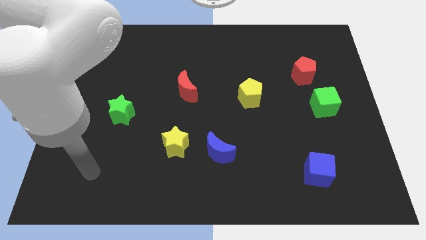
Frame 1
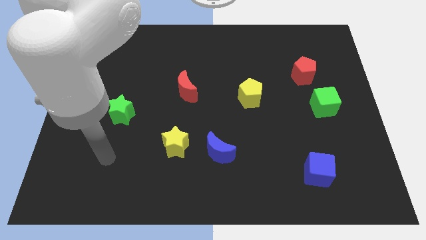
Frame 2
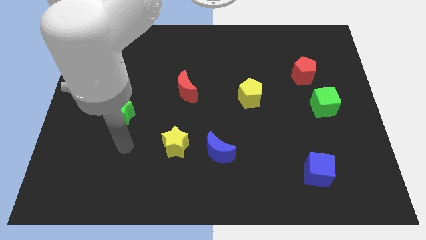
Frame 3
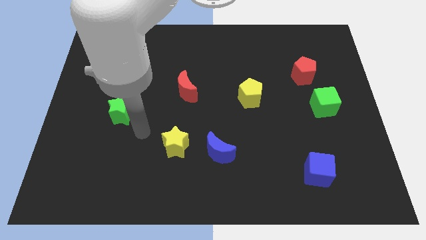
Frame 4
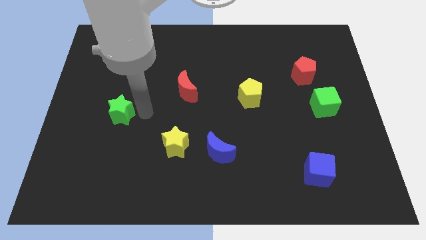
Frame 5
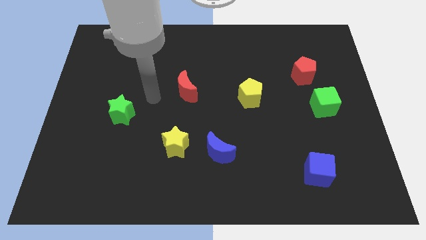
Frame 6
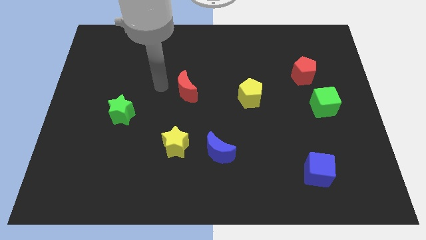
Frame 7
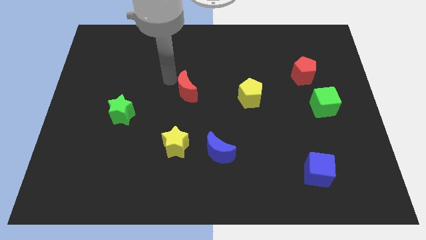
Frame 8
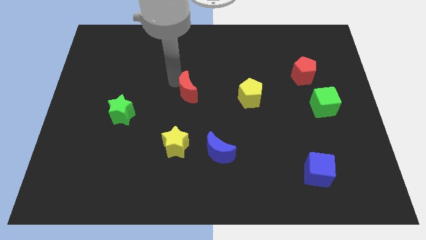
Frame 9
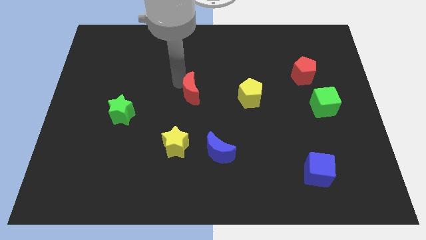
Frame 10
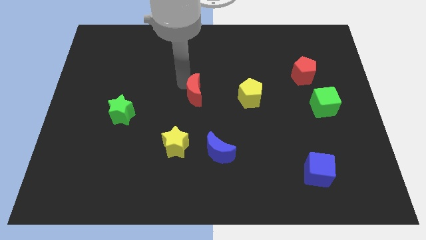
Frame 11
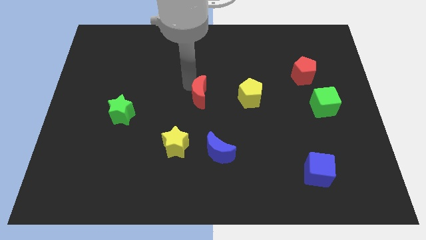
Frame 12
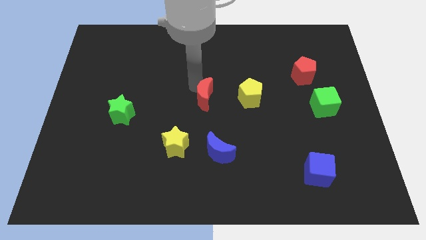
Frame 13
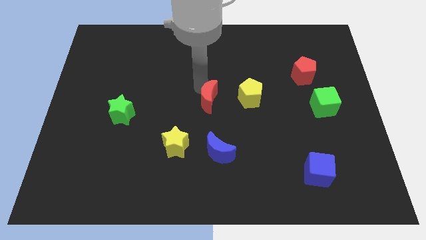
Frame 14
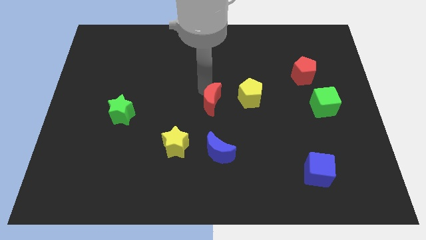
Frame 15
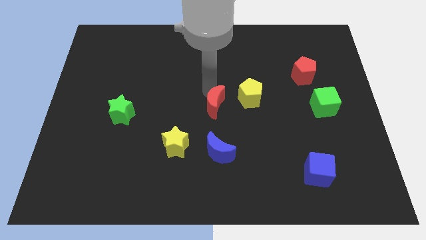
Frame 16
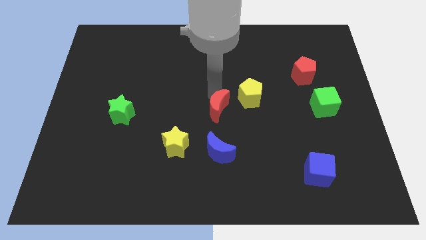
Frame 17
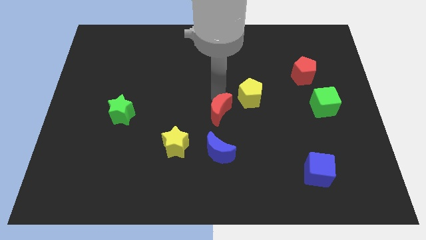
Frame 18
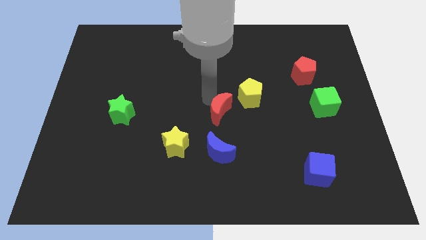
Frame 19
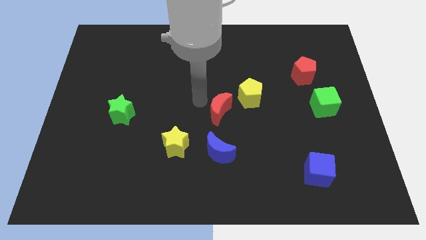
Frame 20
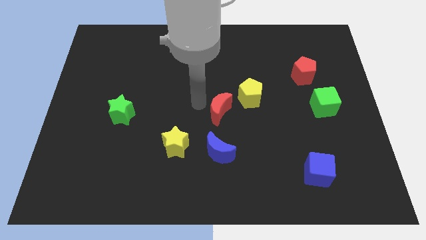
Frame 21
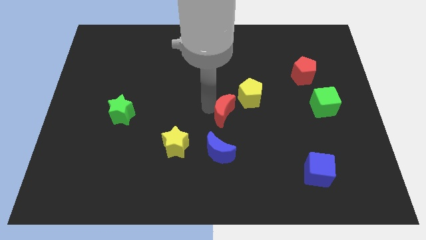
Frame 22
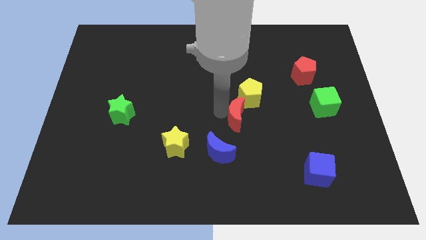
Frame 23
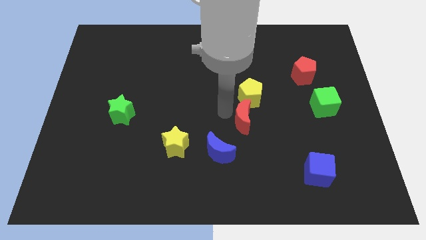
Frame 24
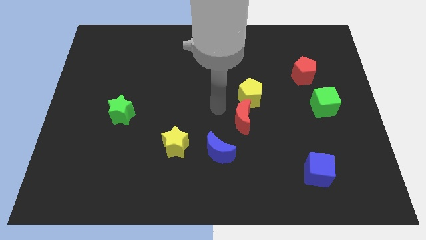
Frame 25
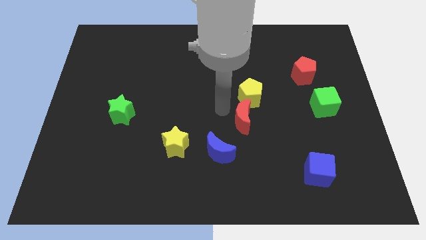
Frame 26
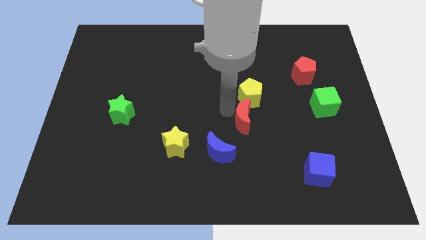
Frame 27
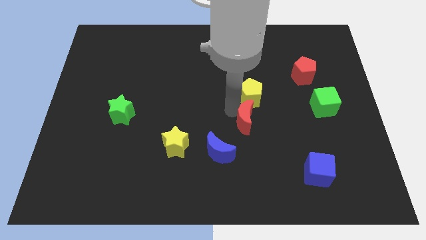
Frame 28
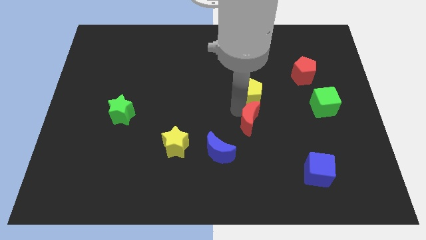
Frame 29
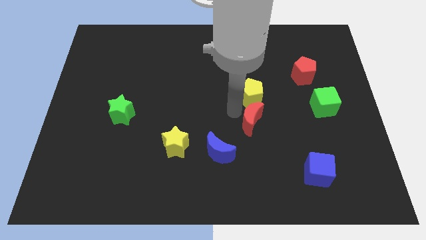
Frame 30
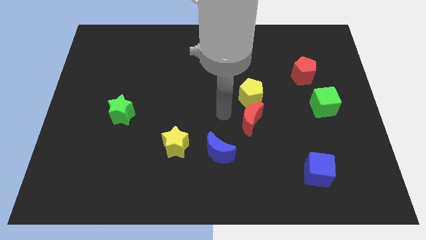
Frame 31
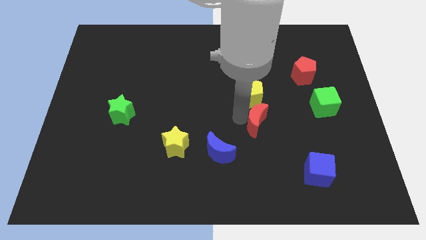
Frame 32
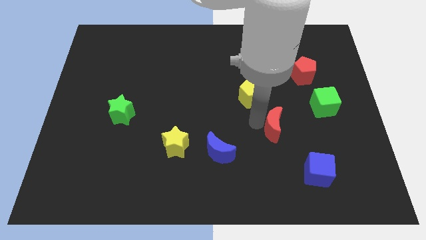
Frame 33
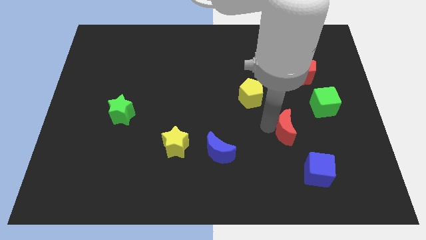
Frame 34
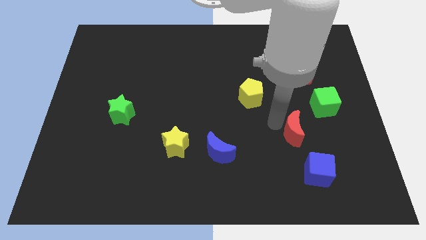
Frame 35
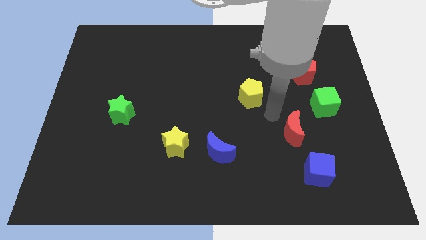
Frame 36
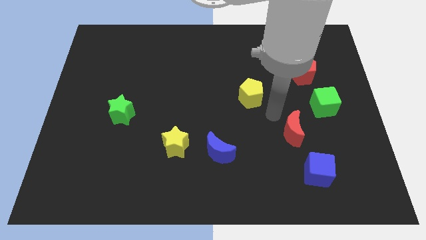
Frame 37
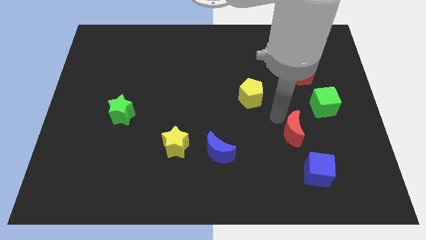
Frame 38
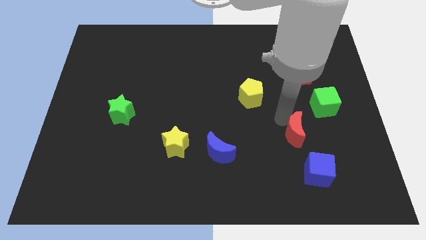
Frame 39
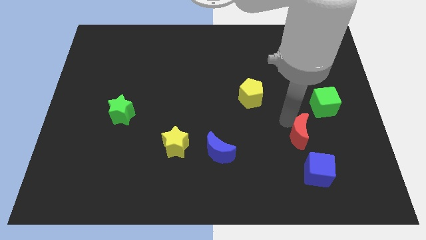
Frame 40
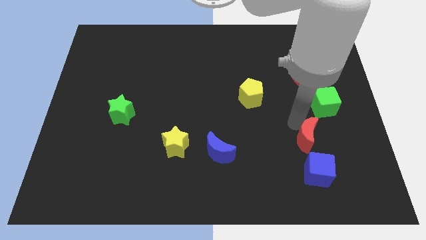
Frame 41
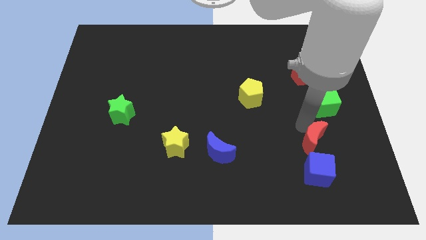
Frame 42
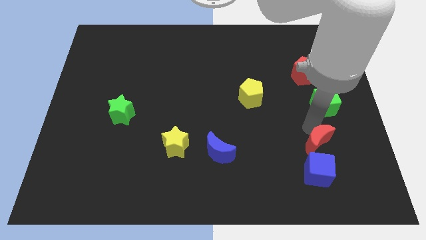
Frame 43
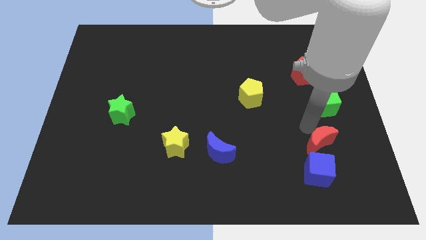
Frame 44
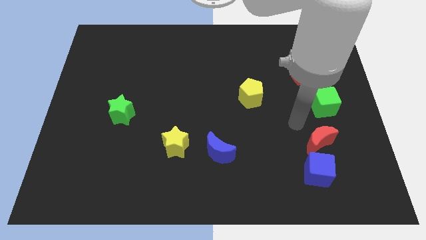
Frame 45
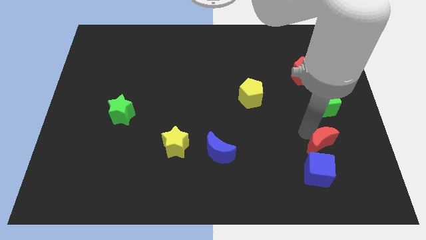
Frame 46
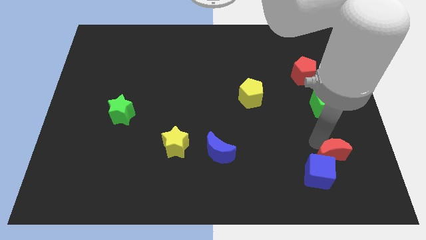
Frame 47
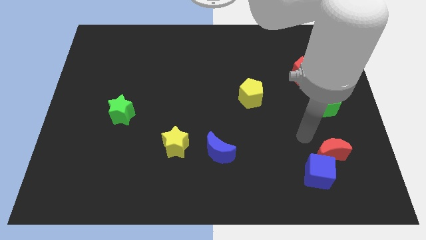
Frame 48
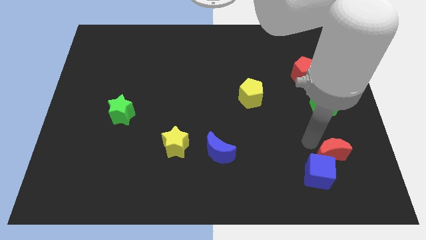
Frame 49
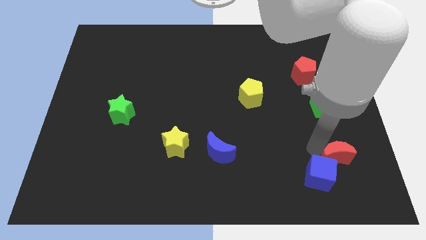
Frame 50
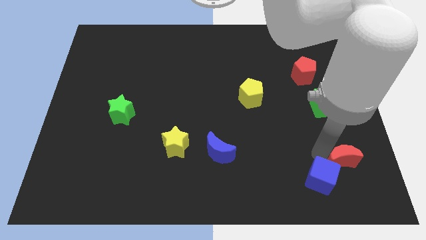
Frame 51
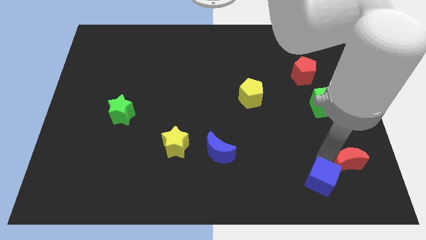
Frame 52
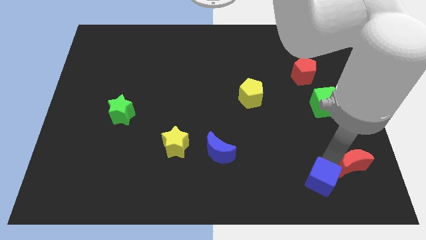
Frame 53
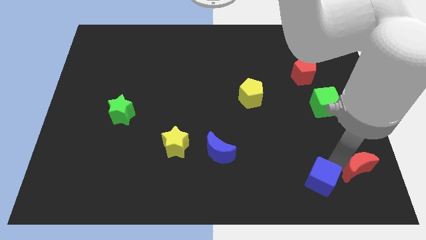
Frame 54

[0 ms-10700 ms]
move the red moon to the bottom right of the board

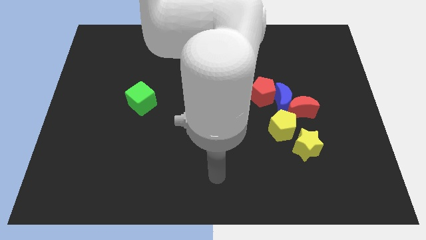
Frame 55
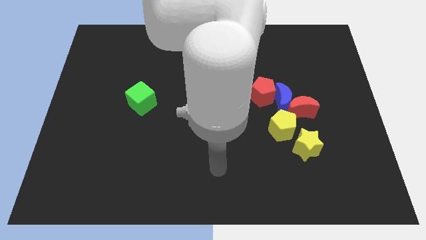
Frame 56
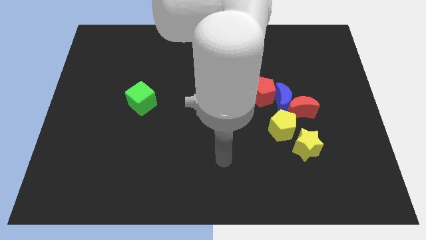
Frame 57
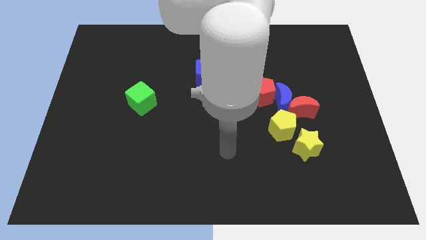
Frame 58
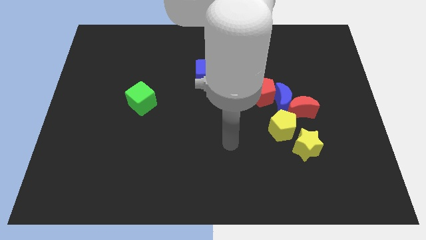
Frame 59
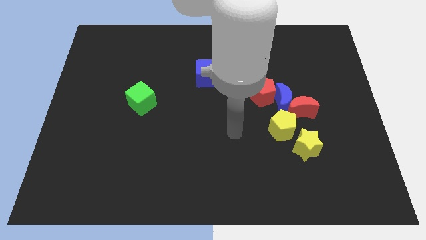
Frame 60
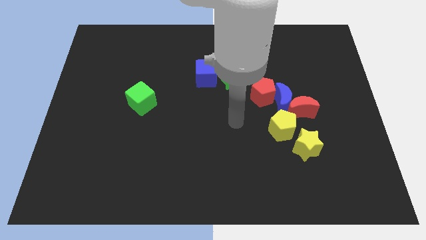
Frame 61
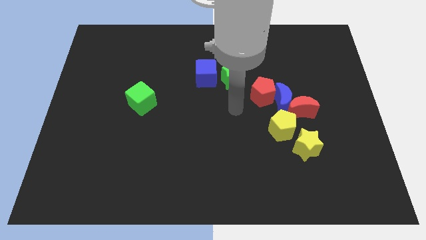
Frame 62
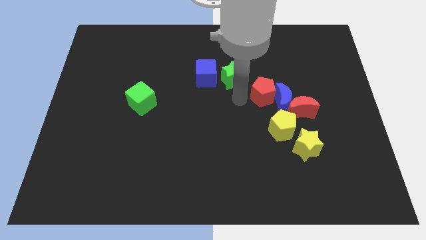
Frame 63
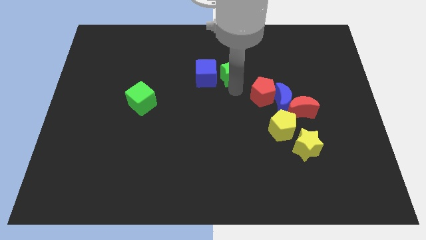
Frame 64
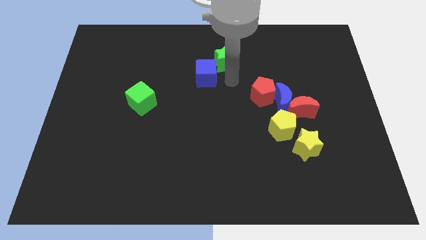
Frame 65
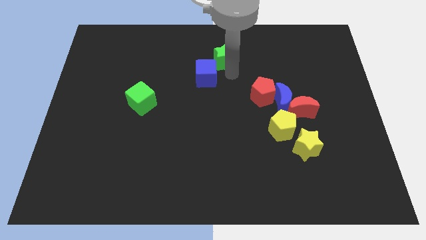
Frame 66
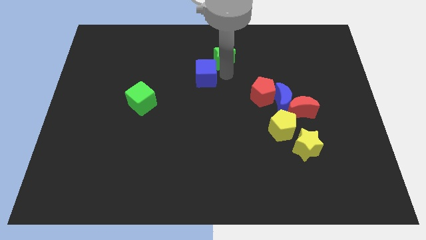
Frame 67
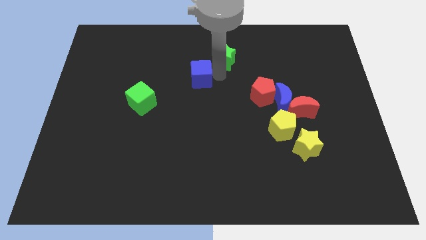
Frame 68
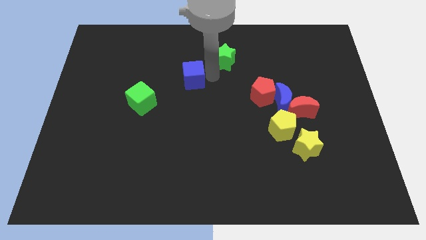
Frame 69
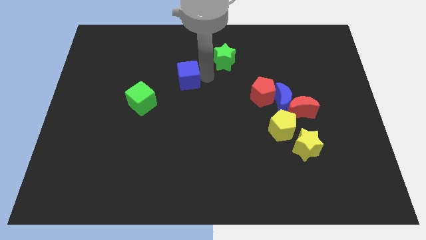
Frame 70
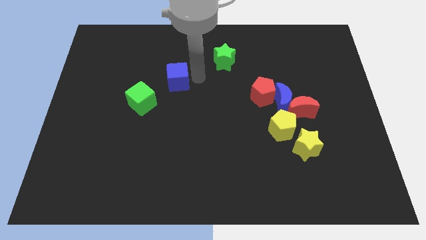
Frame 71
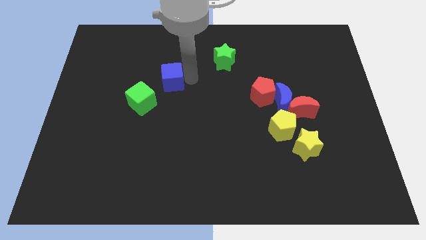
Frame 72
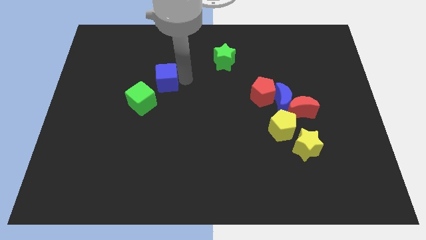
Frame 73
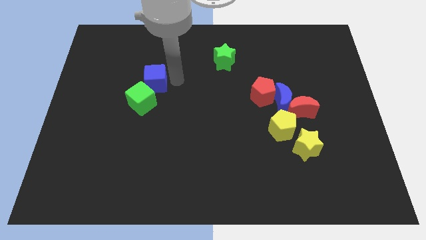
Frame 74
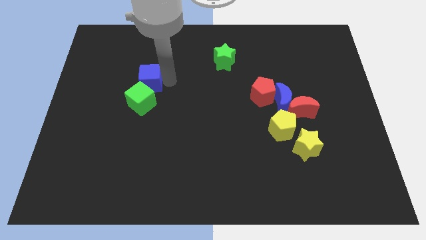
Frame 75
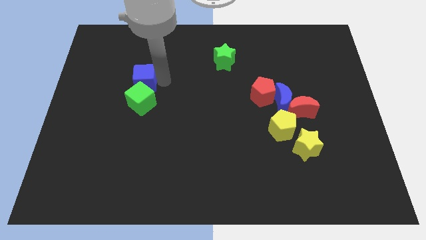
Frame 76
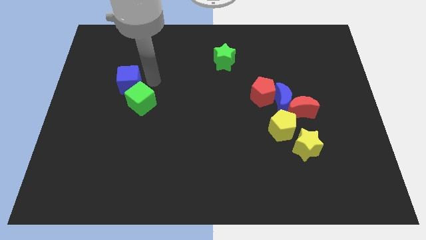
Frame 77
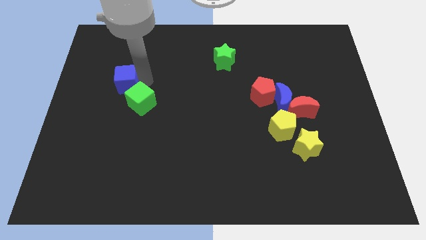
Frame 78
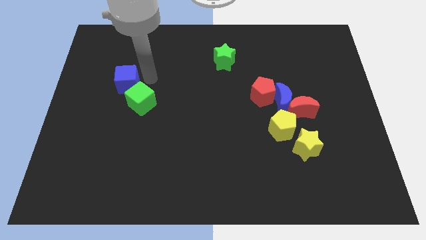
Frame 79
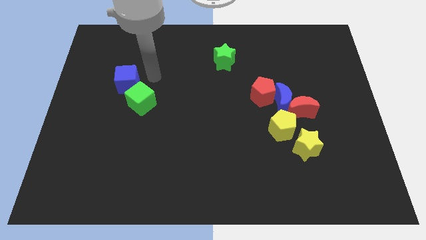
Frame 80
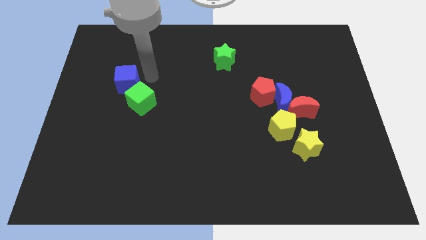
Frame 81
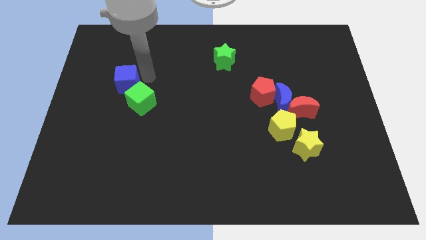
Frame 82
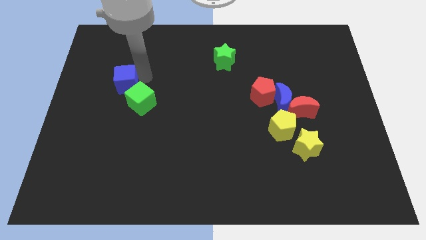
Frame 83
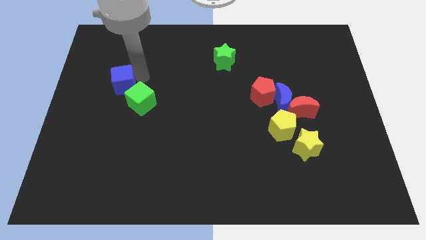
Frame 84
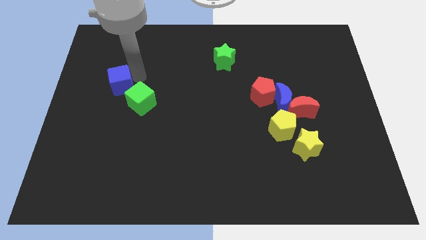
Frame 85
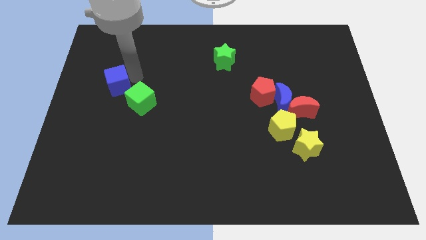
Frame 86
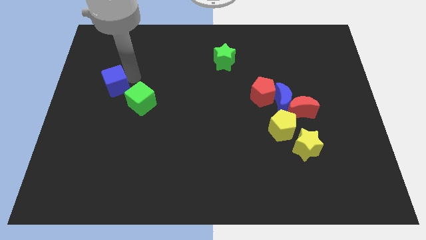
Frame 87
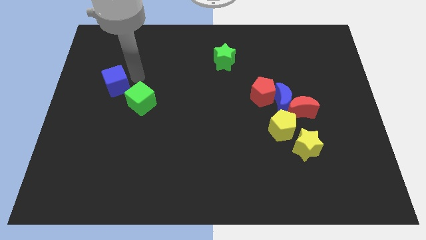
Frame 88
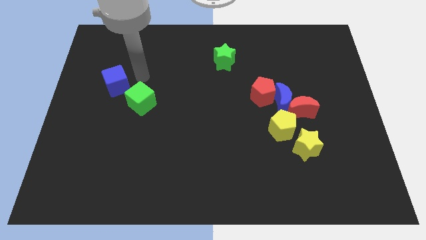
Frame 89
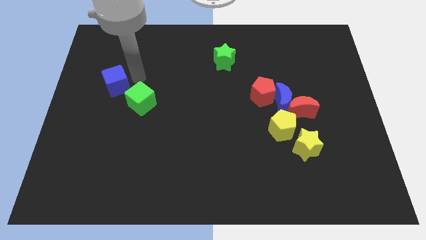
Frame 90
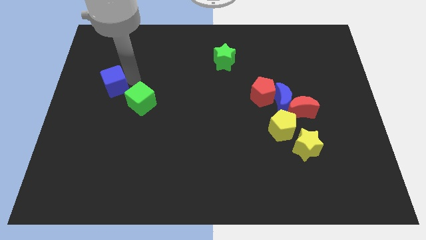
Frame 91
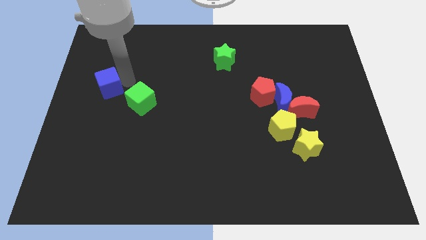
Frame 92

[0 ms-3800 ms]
push the blue cube to the center left
